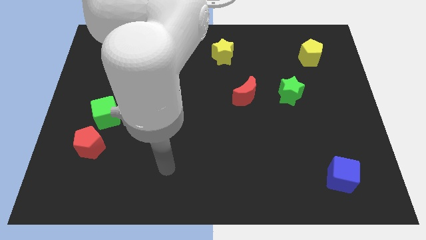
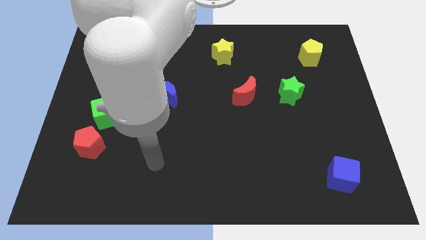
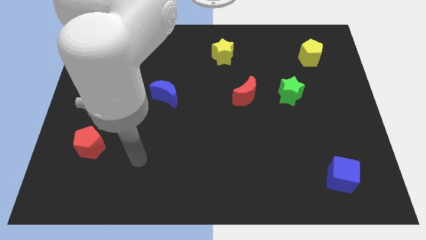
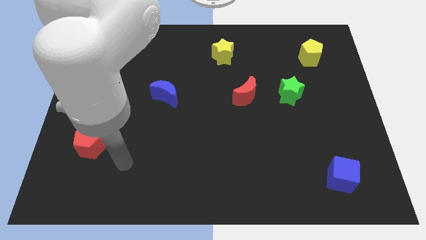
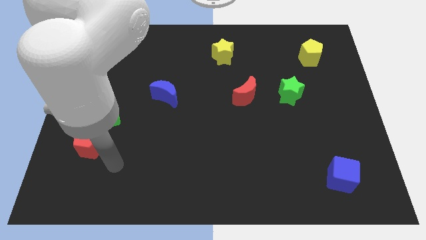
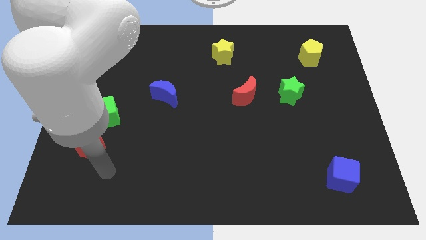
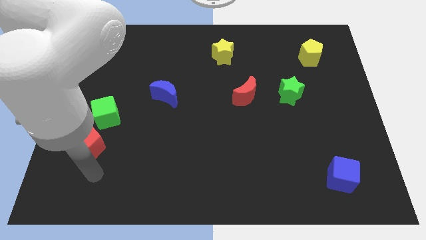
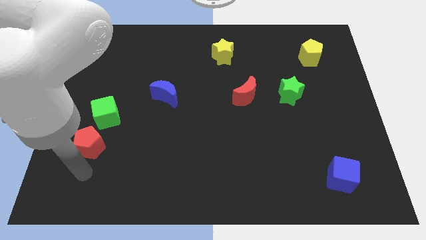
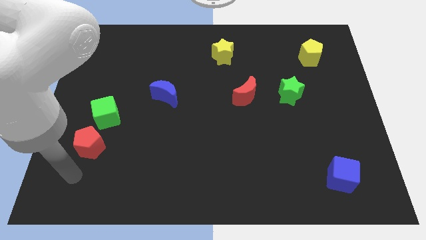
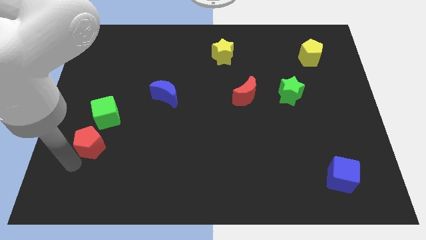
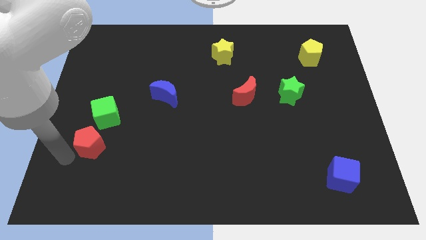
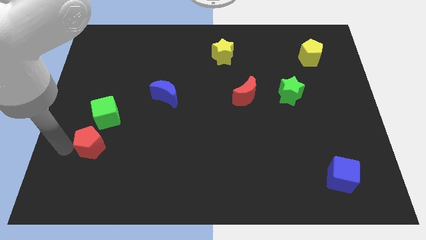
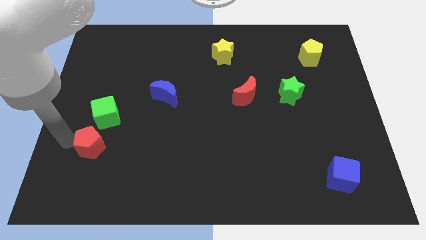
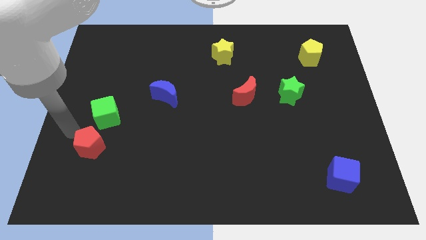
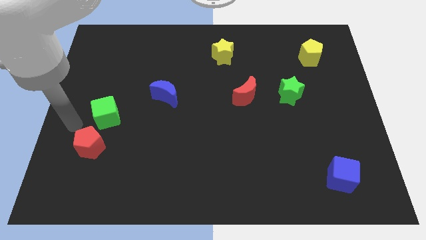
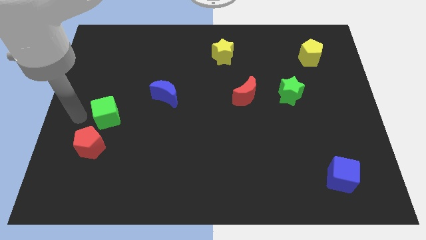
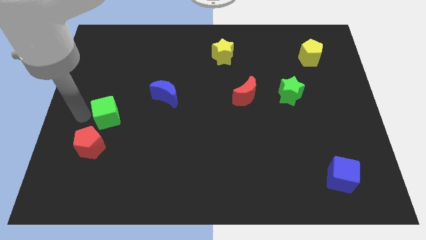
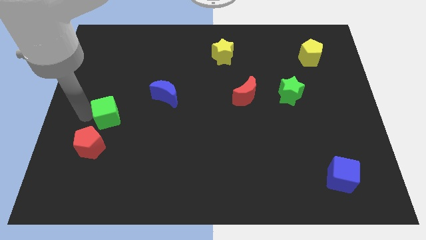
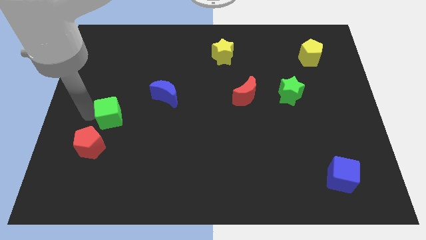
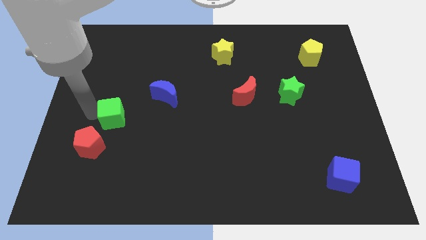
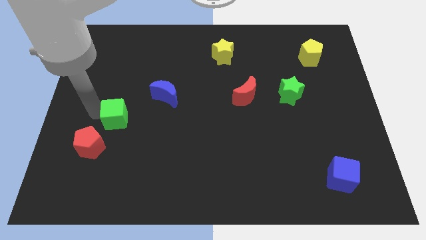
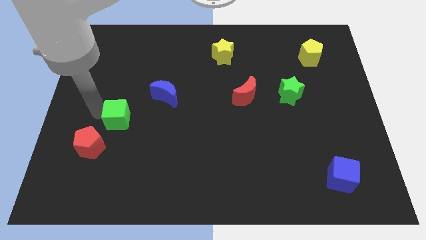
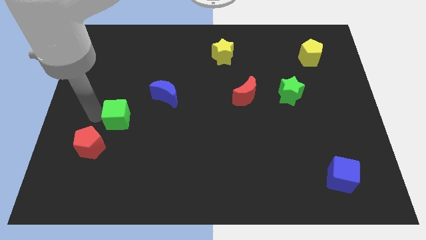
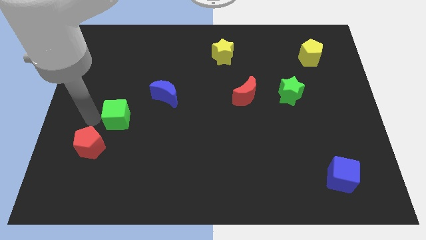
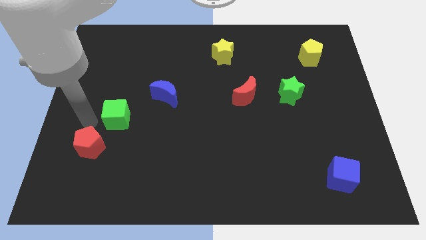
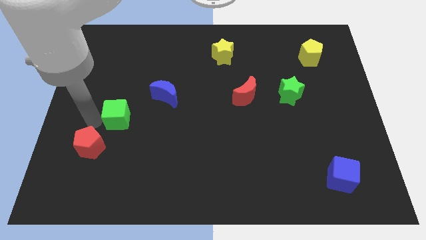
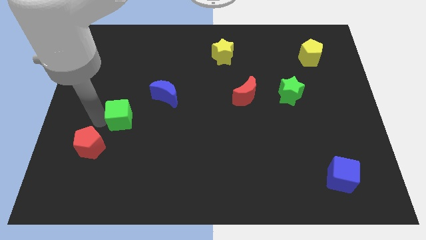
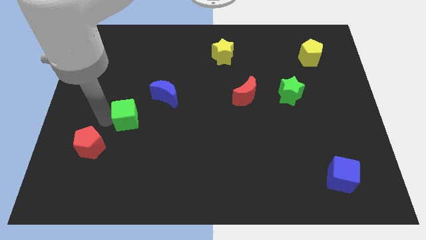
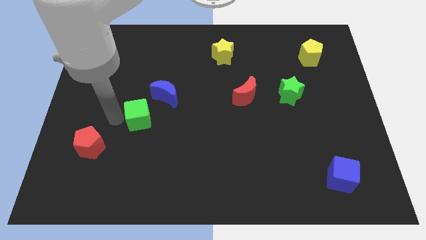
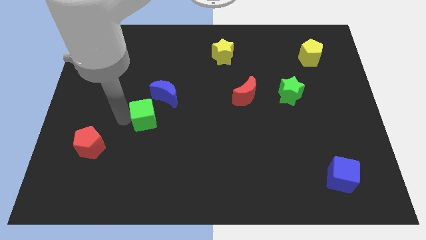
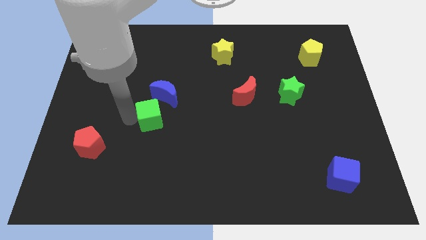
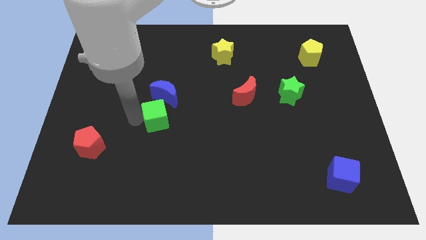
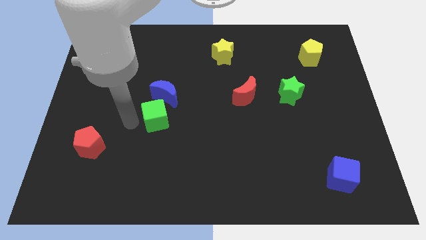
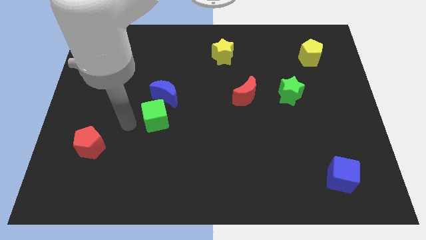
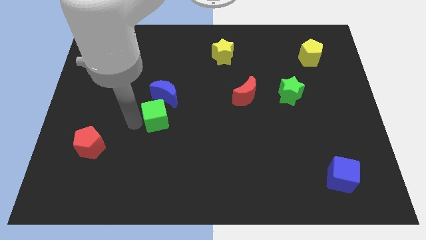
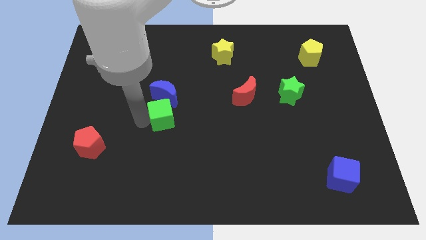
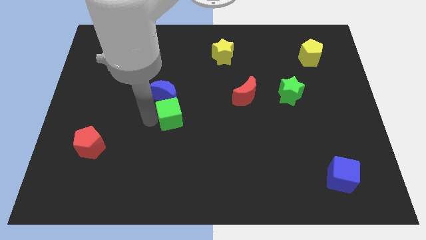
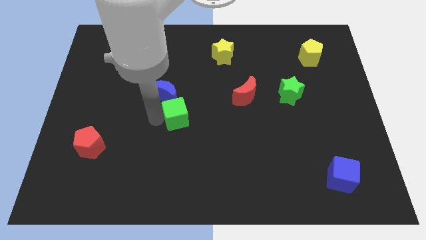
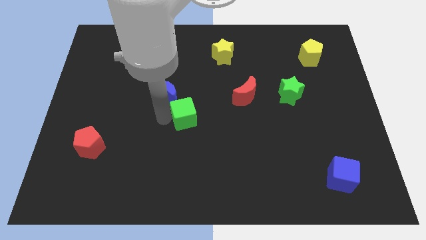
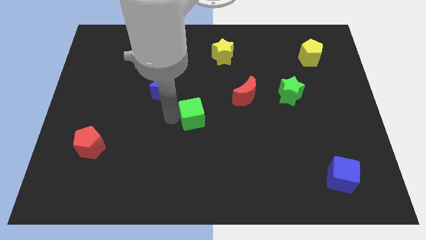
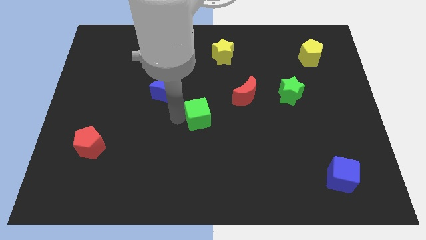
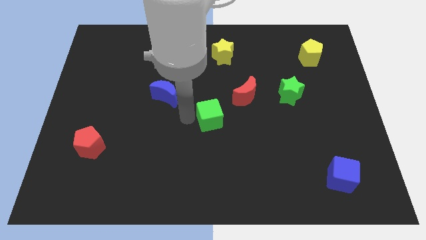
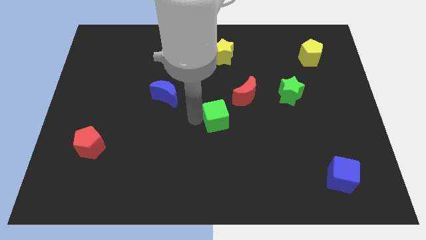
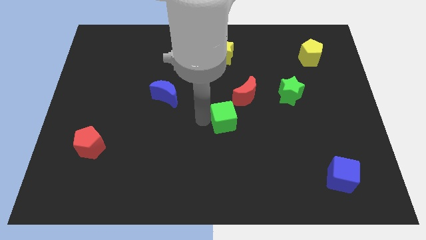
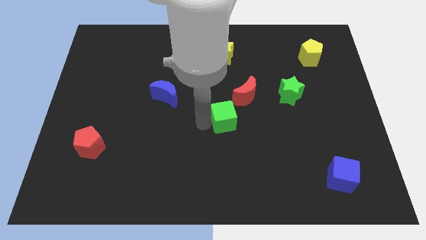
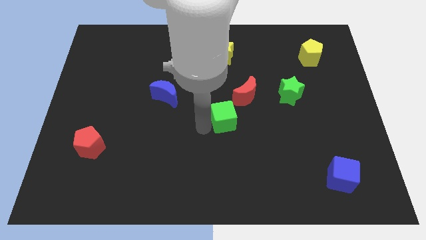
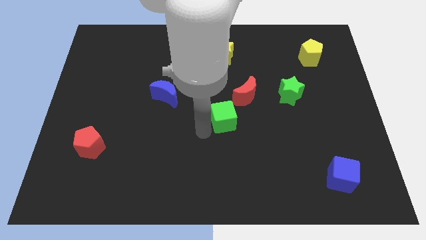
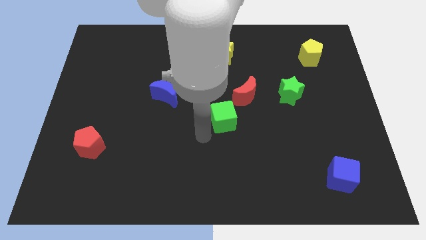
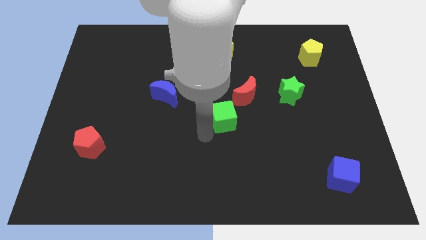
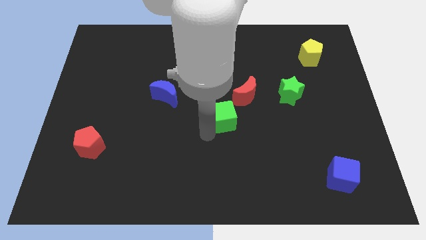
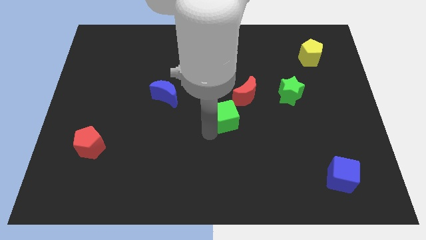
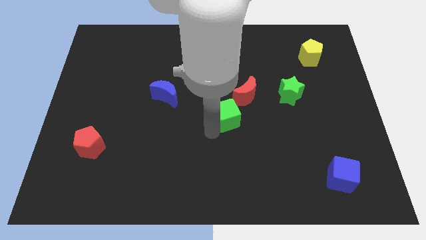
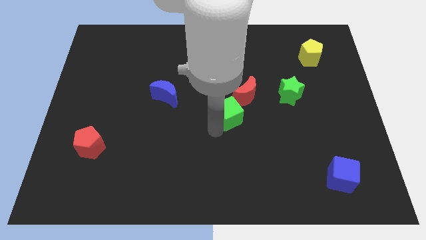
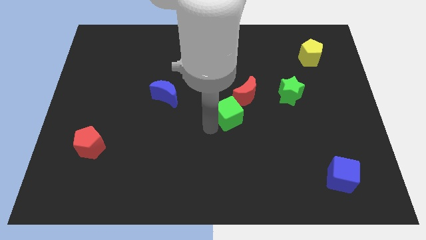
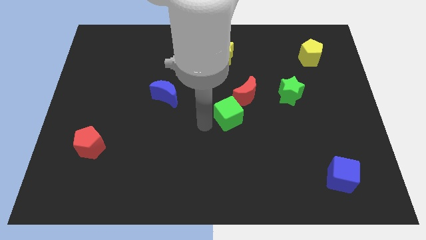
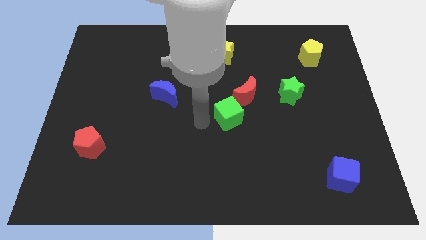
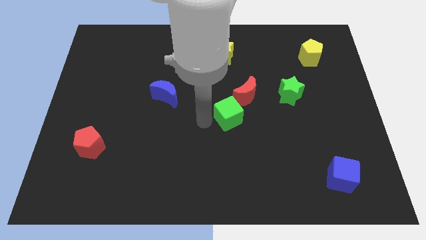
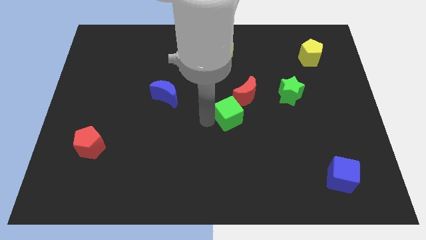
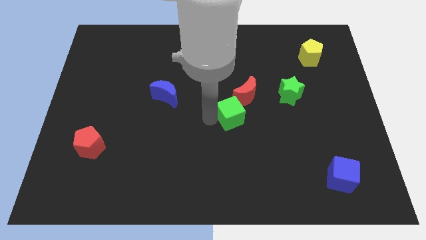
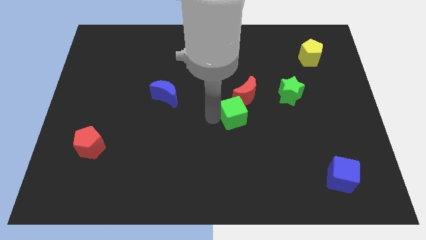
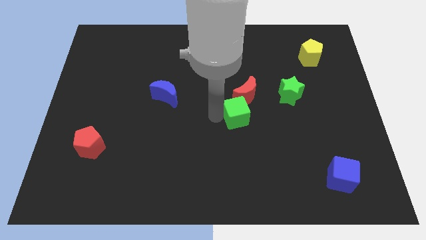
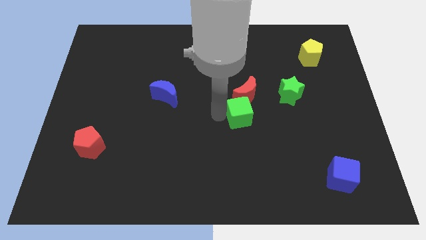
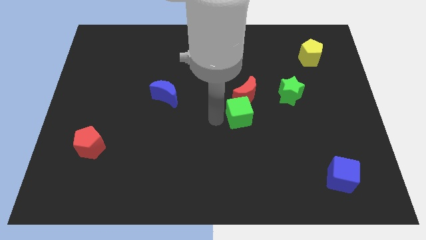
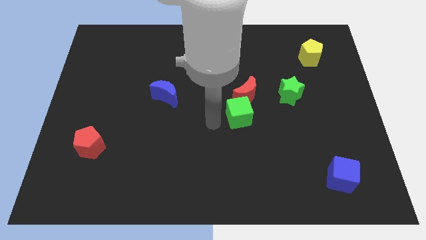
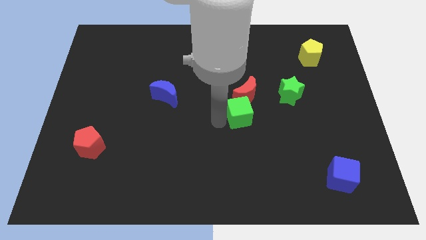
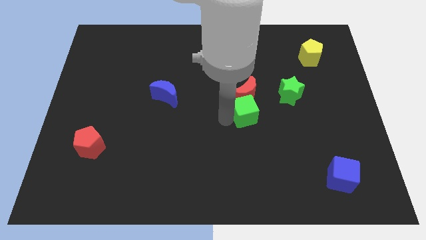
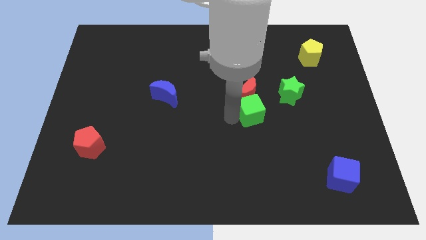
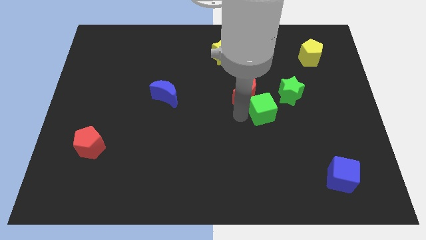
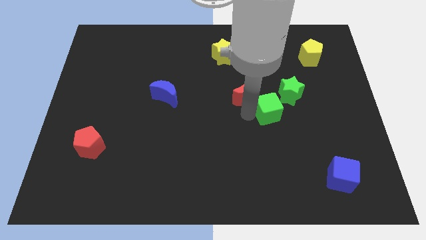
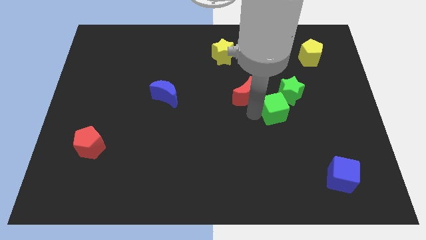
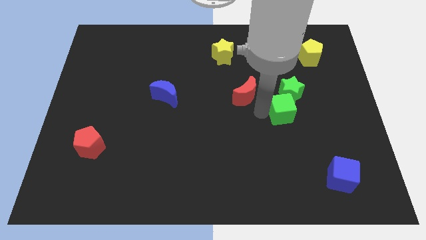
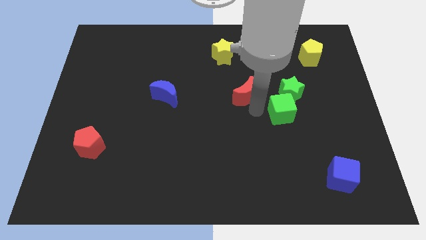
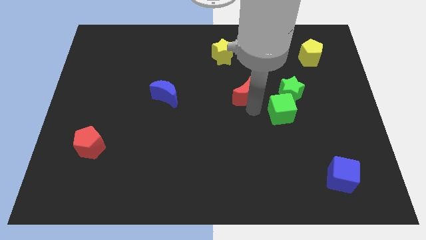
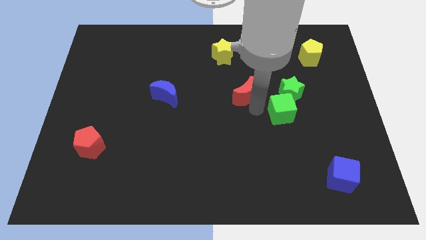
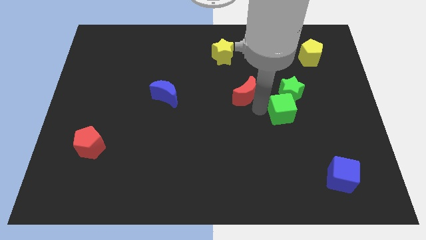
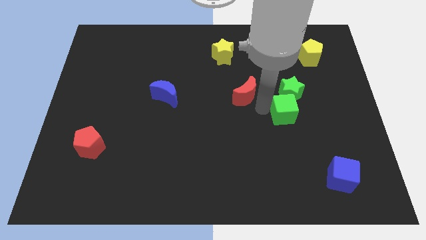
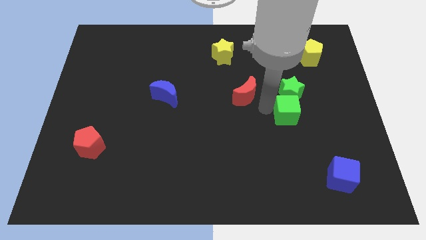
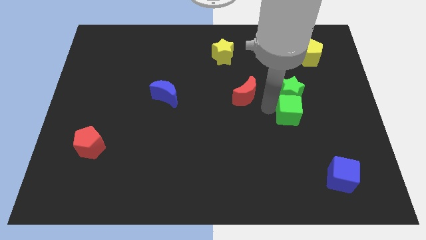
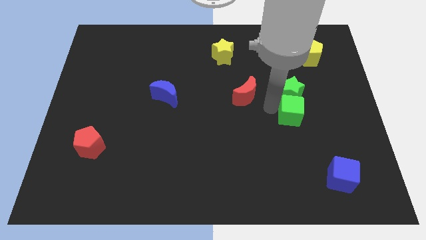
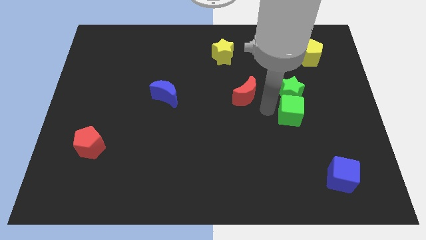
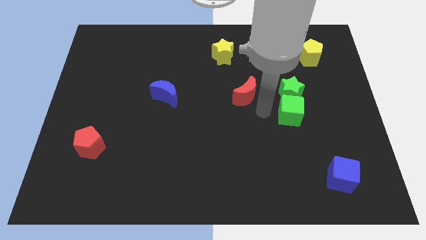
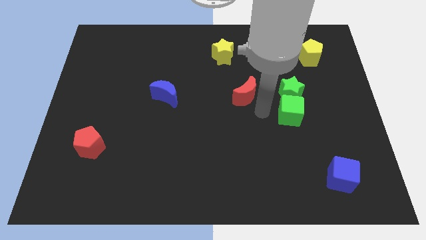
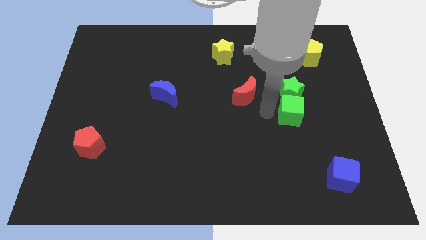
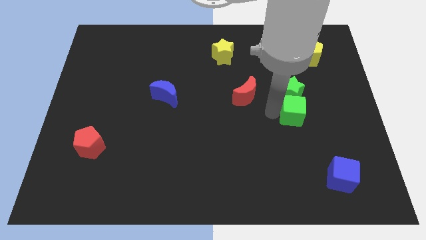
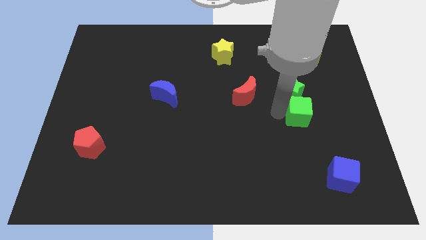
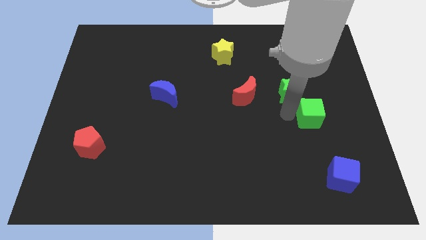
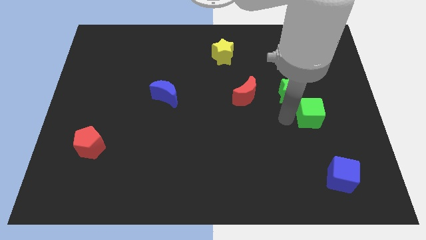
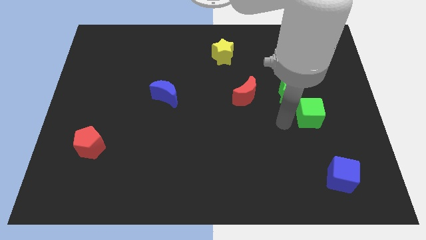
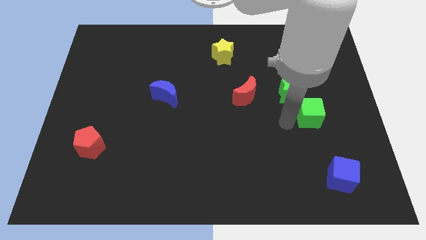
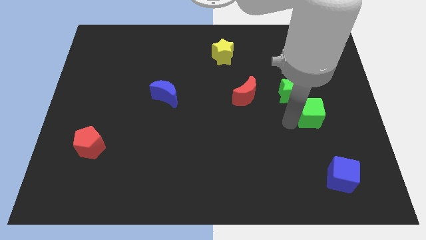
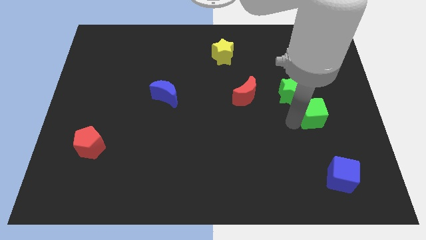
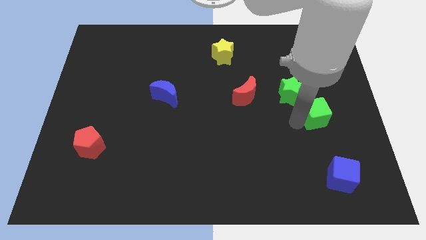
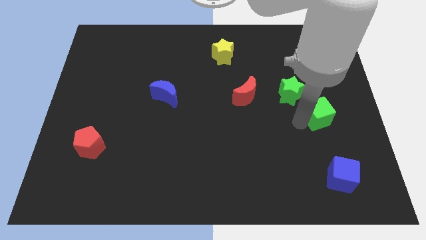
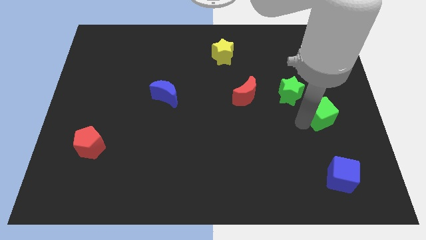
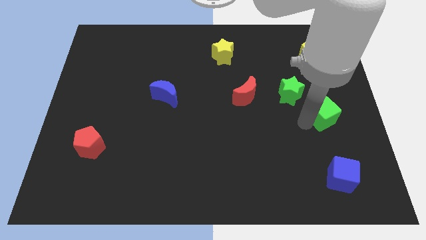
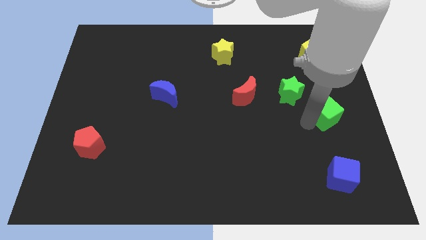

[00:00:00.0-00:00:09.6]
move the green cube to the center right
